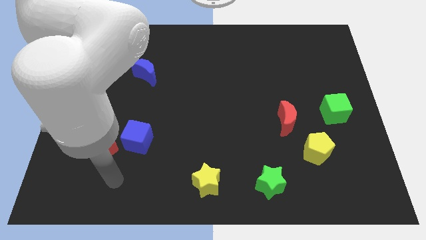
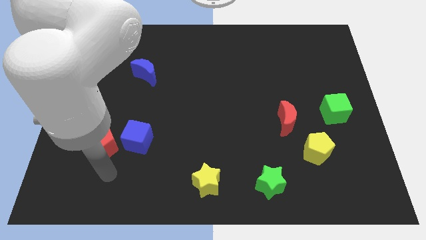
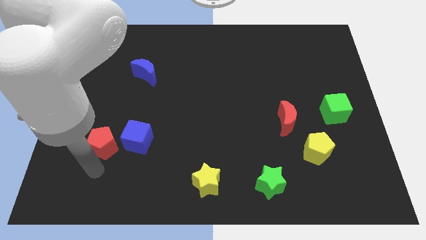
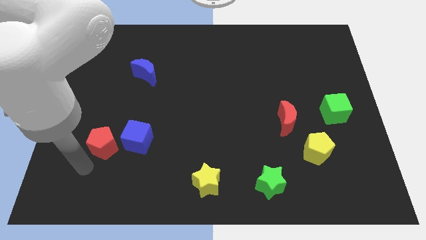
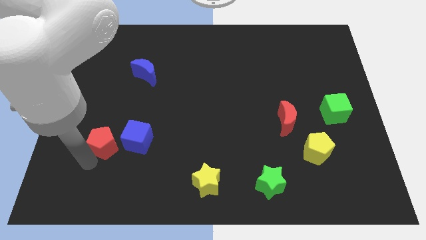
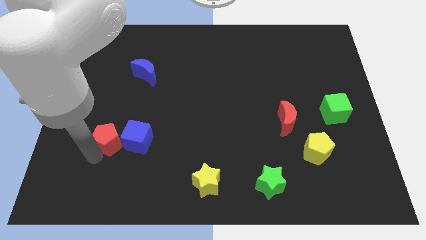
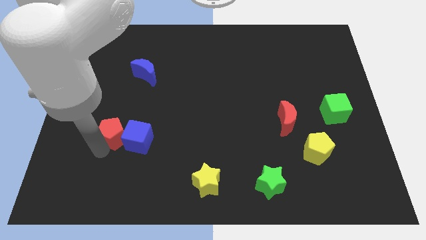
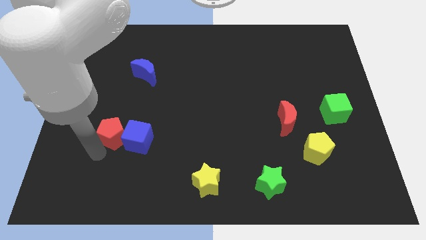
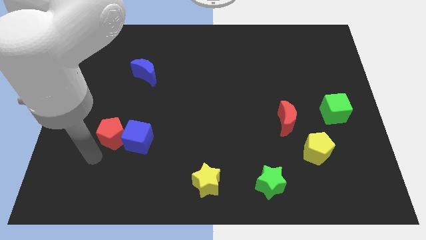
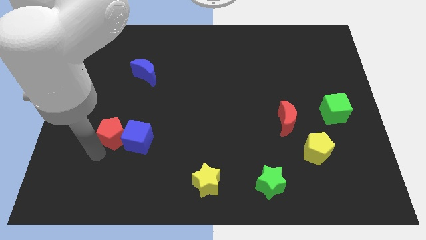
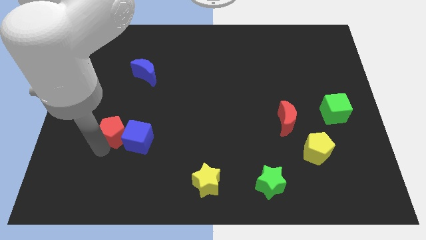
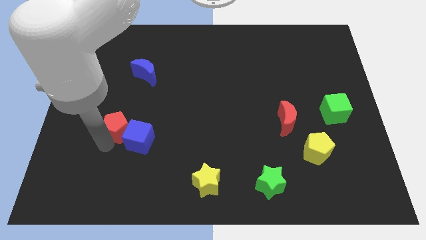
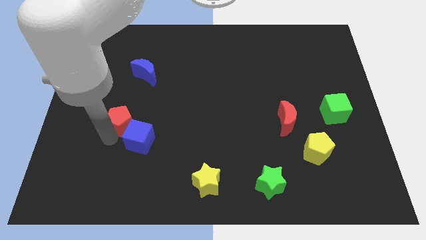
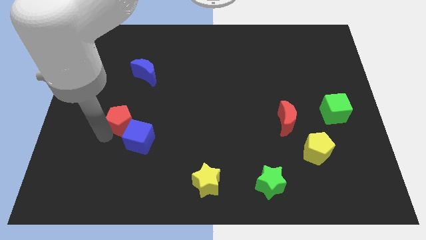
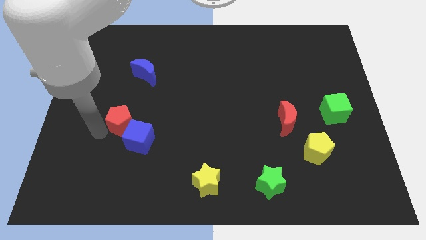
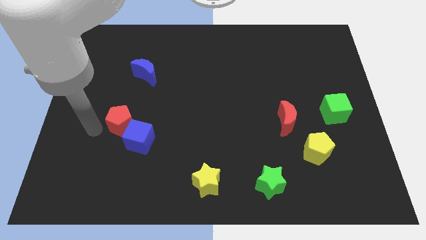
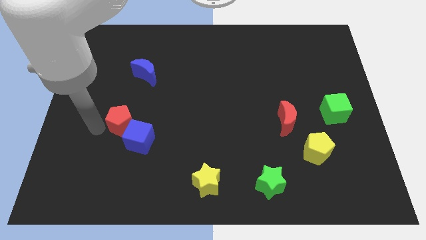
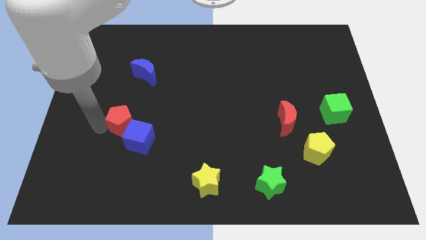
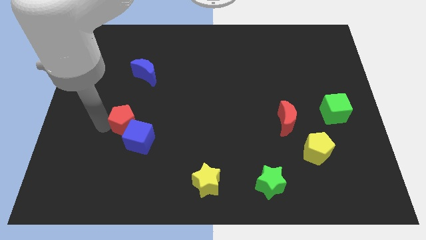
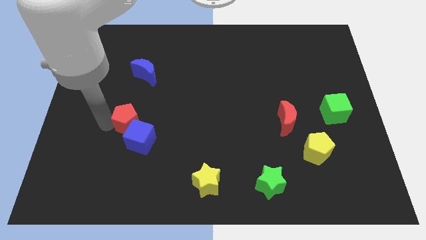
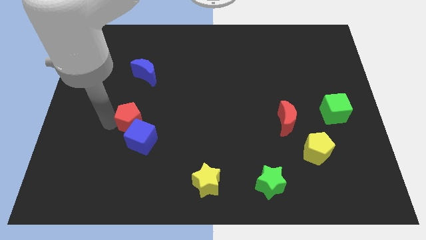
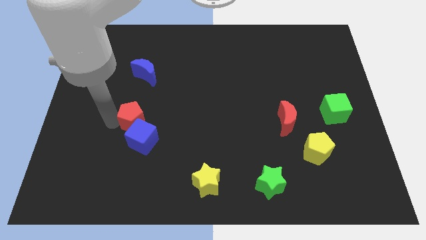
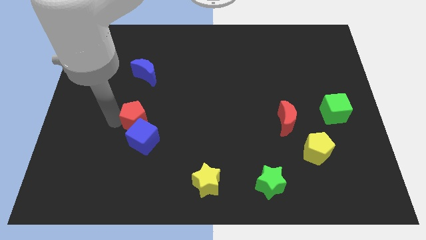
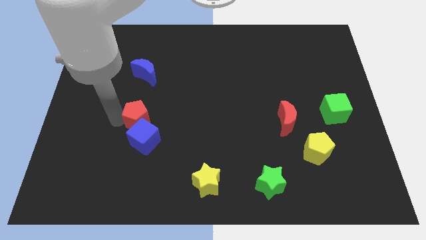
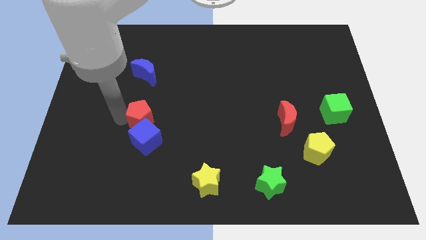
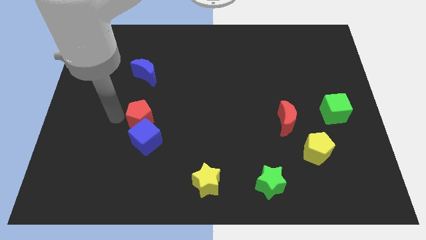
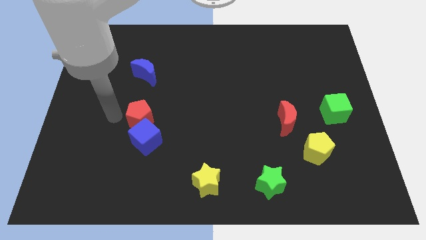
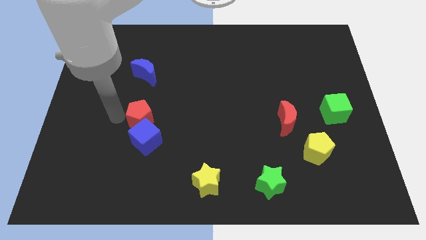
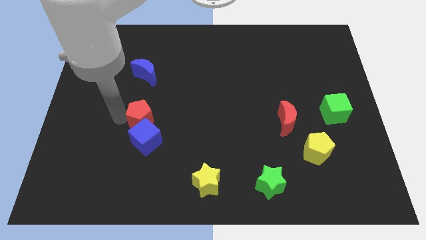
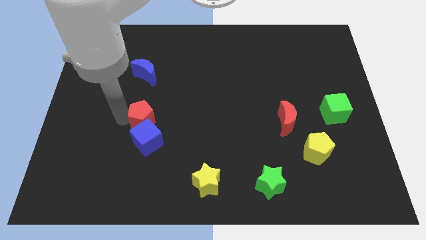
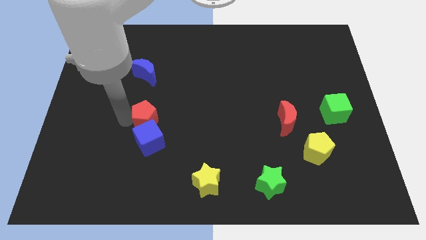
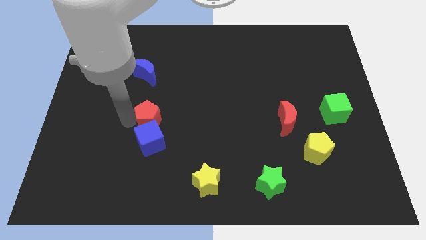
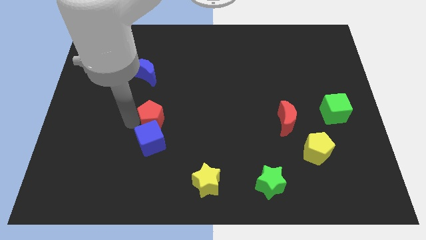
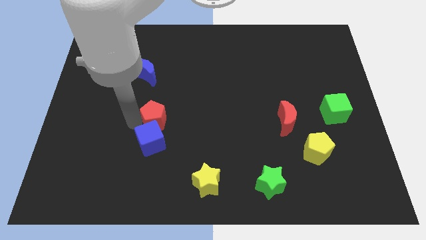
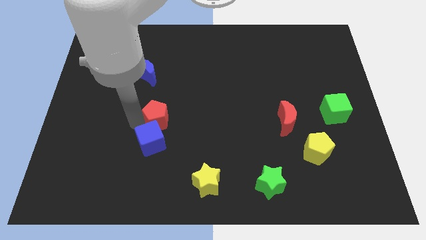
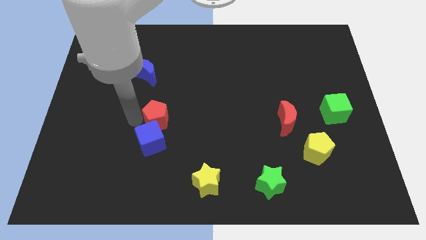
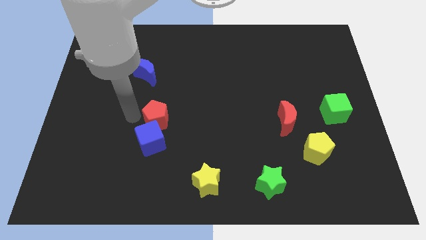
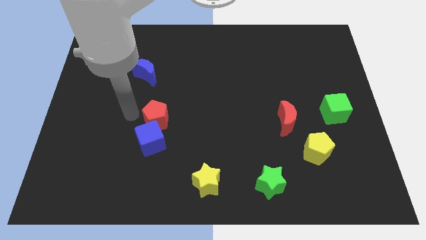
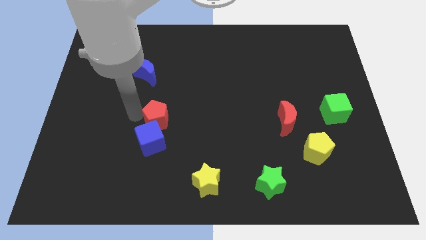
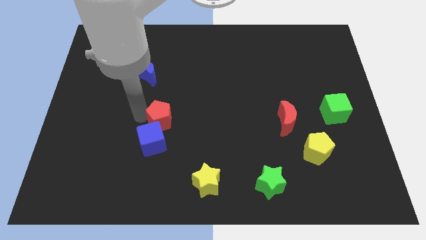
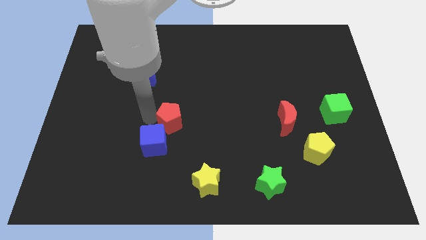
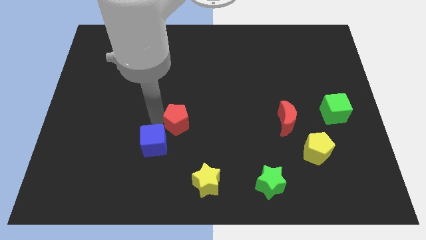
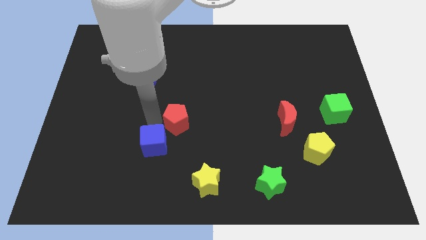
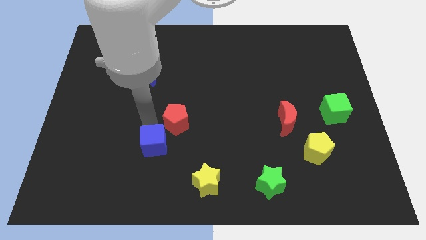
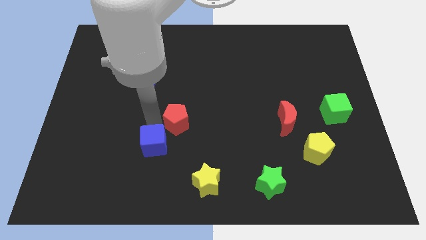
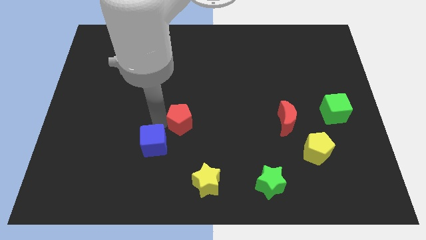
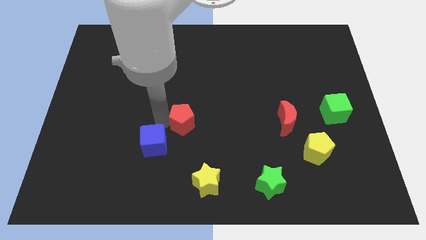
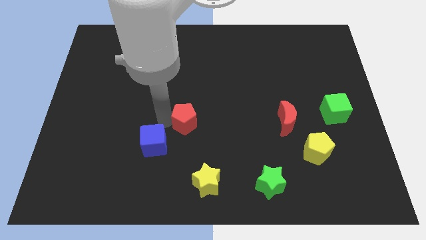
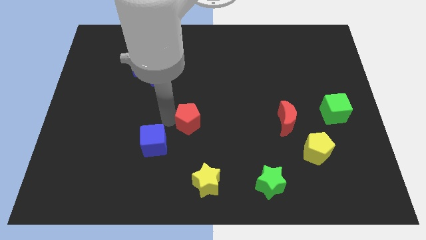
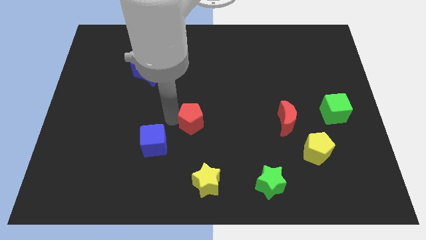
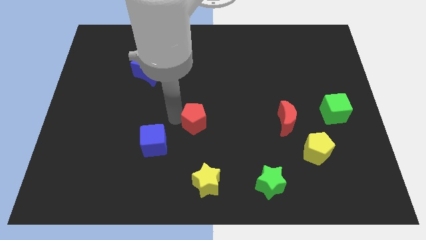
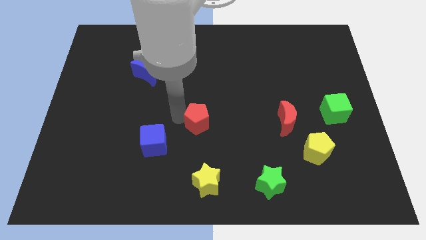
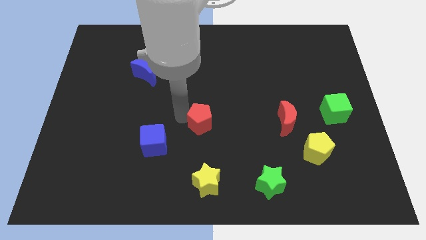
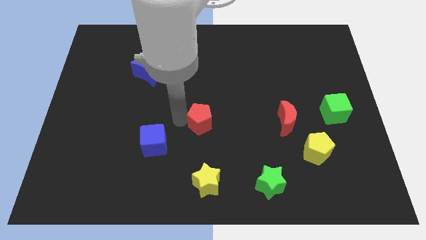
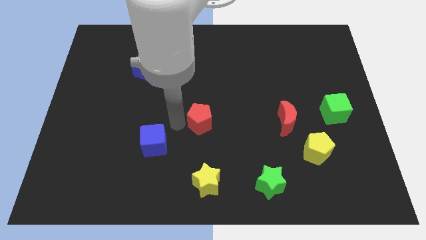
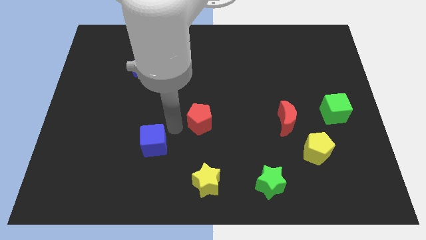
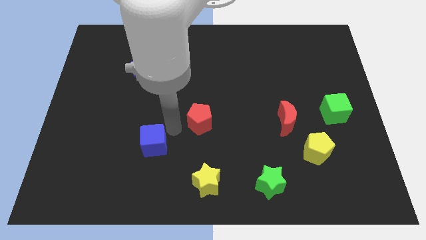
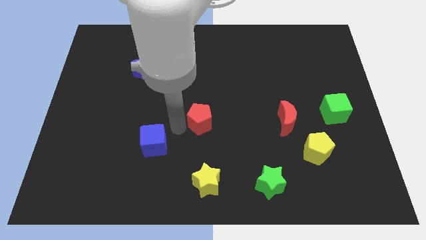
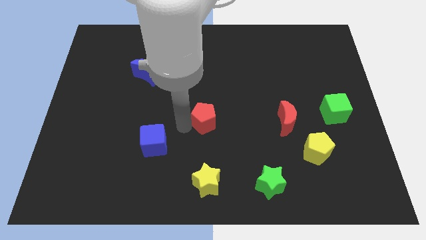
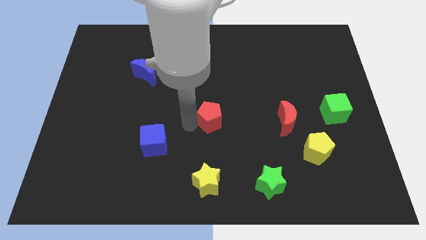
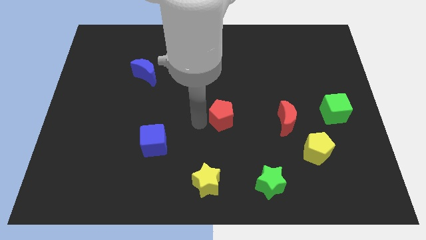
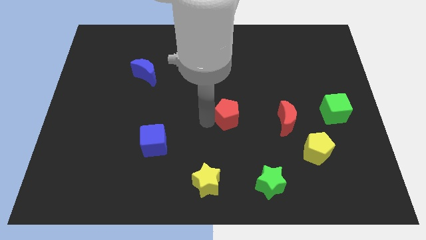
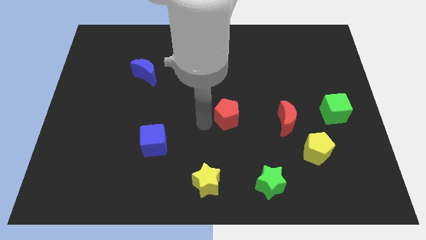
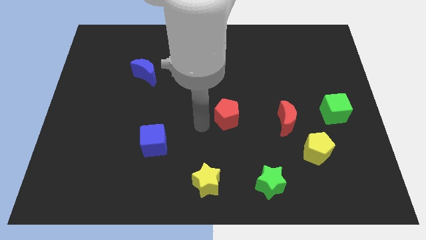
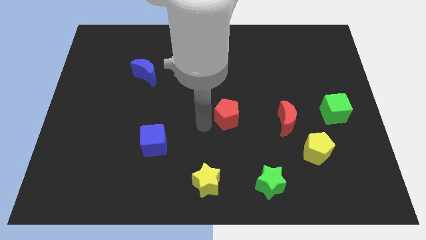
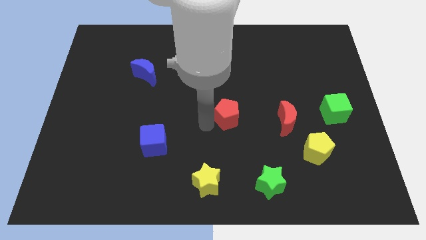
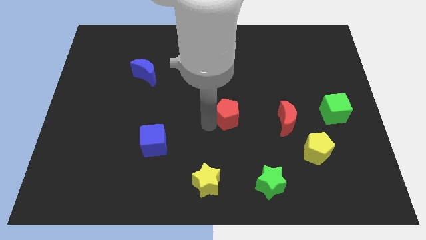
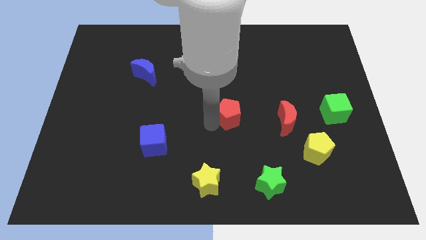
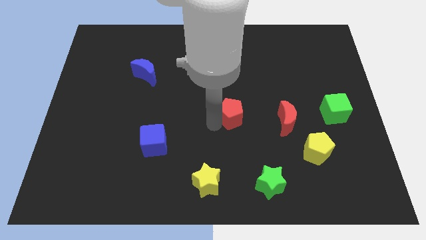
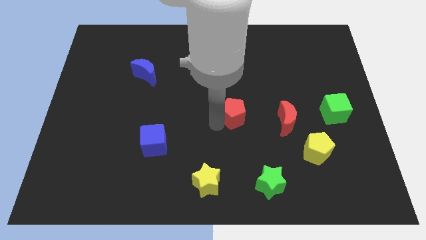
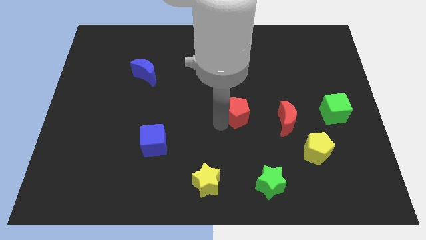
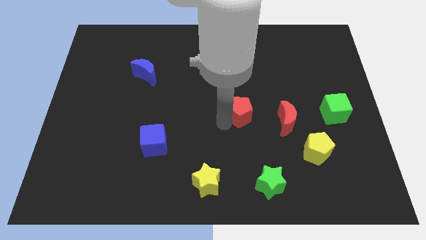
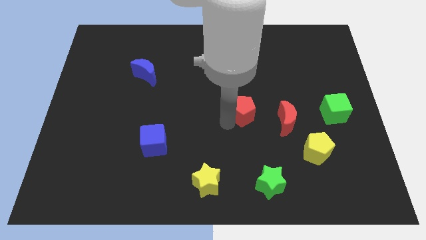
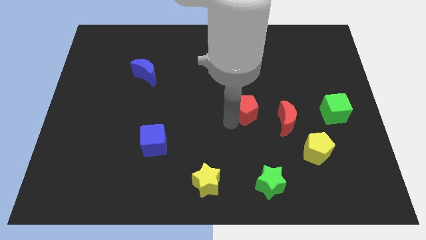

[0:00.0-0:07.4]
slide the red pentagon to the top left of the red moon
